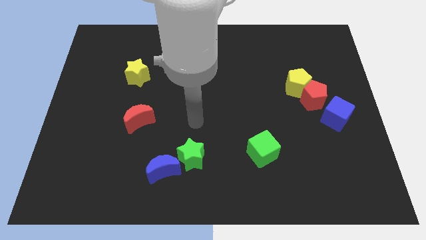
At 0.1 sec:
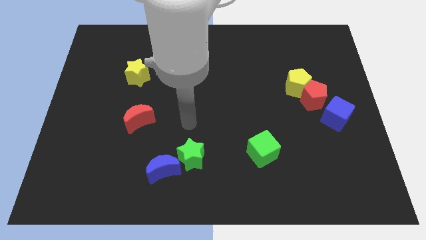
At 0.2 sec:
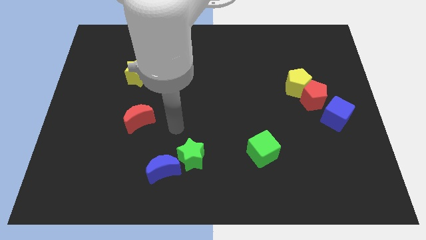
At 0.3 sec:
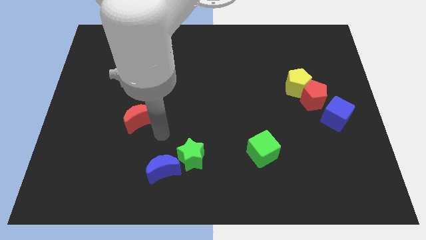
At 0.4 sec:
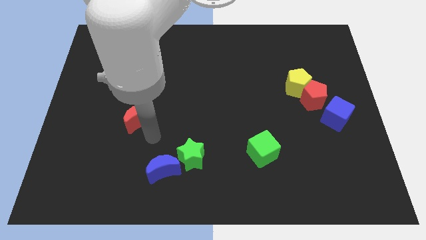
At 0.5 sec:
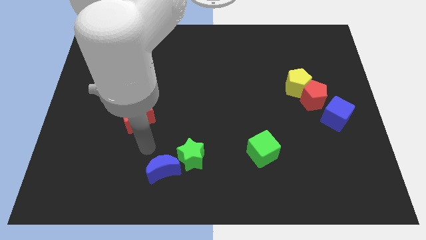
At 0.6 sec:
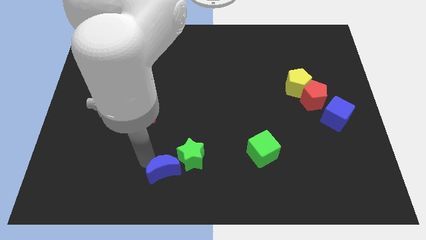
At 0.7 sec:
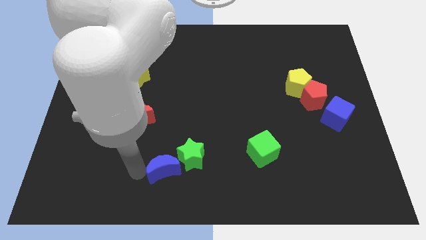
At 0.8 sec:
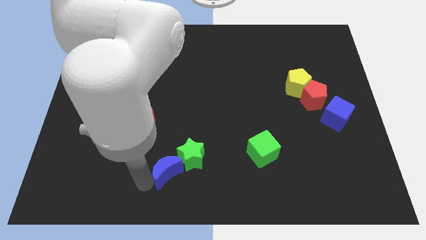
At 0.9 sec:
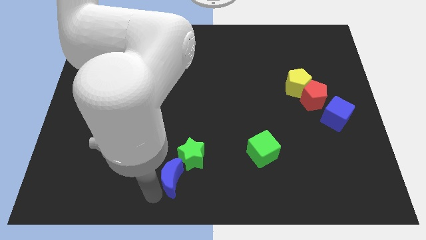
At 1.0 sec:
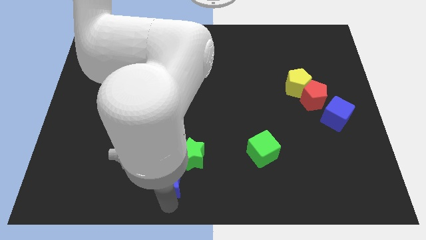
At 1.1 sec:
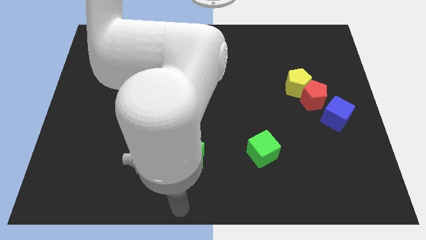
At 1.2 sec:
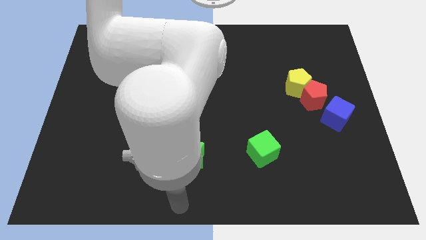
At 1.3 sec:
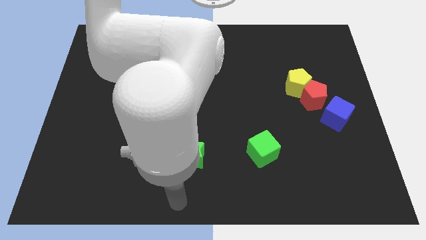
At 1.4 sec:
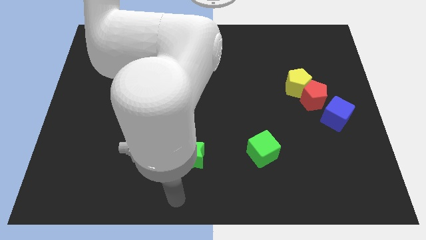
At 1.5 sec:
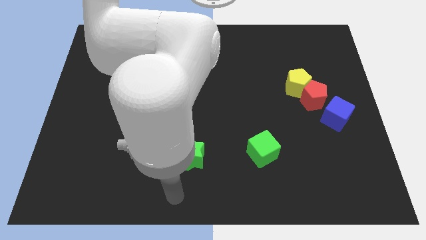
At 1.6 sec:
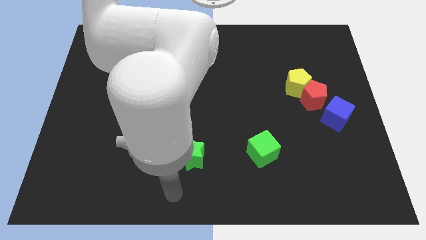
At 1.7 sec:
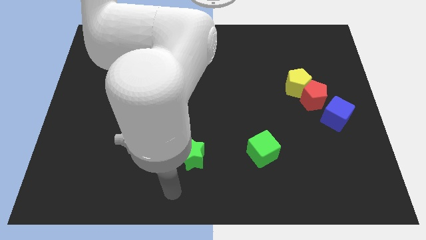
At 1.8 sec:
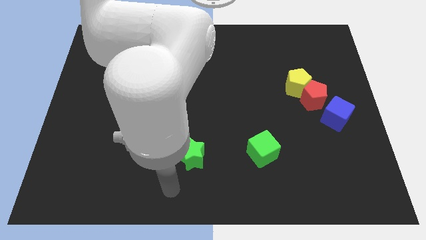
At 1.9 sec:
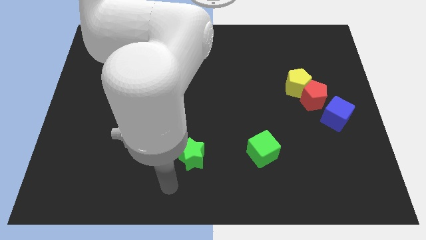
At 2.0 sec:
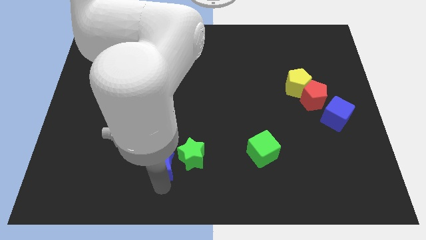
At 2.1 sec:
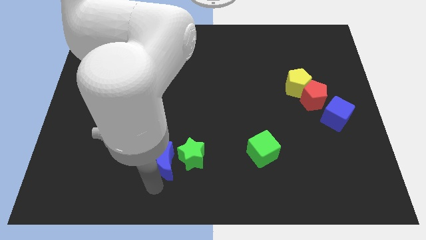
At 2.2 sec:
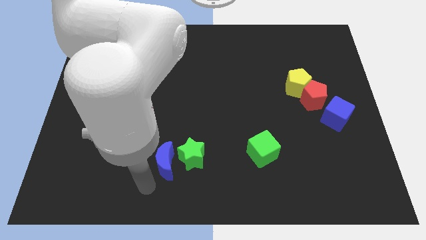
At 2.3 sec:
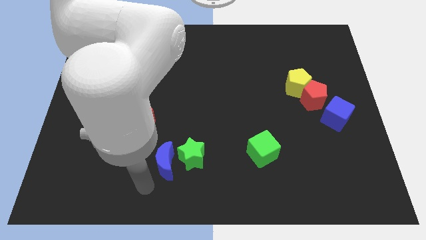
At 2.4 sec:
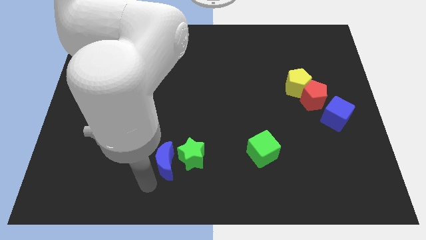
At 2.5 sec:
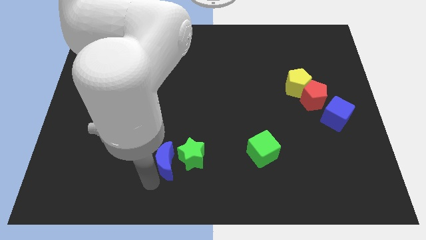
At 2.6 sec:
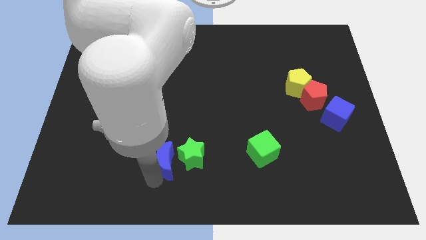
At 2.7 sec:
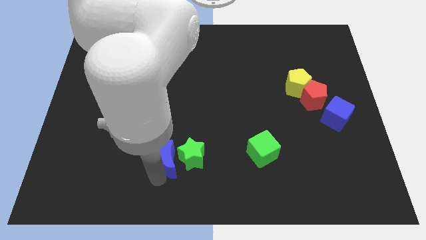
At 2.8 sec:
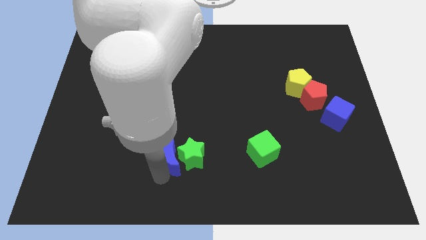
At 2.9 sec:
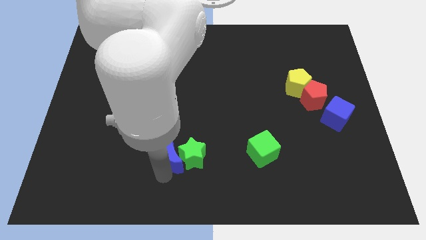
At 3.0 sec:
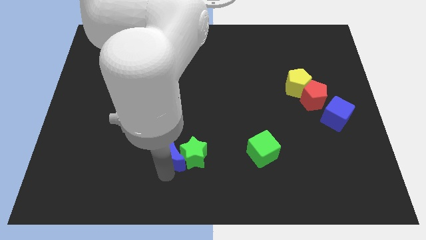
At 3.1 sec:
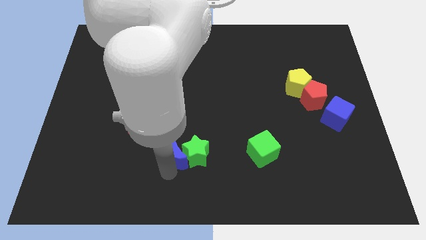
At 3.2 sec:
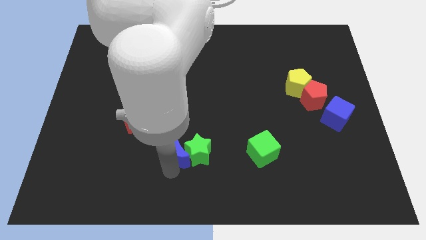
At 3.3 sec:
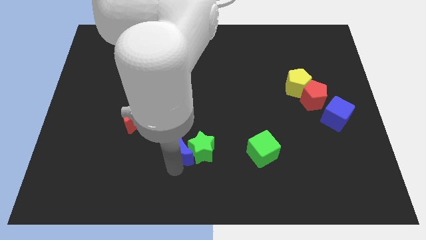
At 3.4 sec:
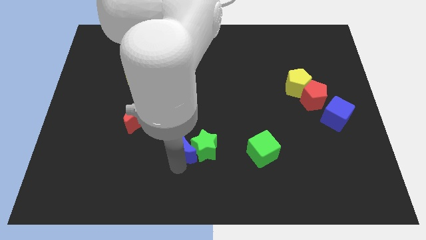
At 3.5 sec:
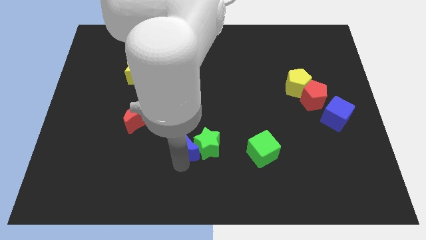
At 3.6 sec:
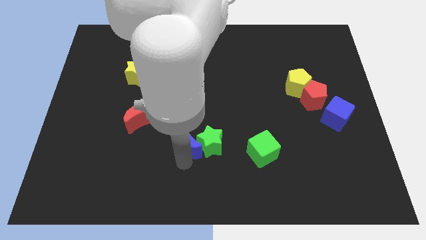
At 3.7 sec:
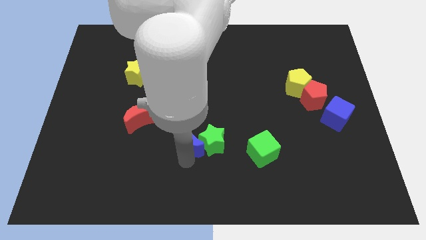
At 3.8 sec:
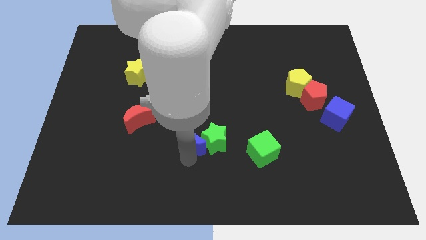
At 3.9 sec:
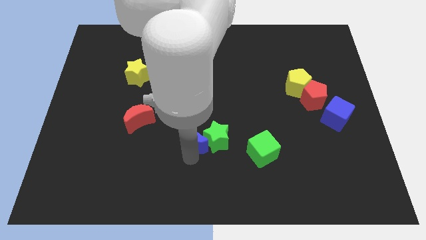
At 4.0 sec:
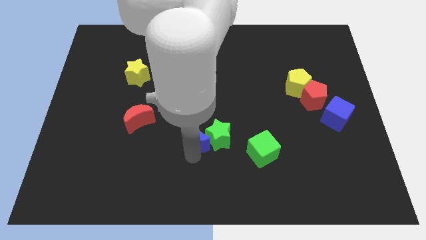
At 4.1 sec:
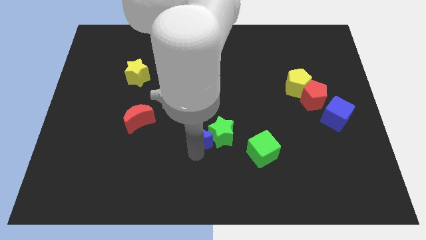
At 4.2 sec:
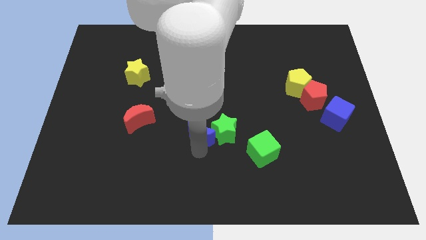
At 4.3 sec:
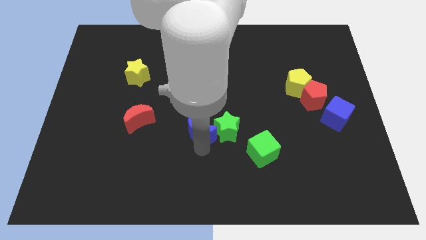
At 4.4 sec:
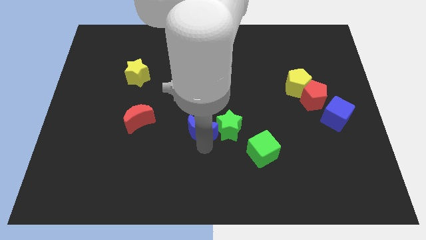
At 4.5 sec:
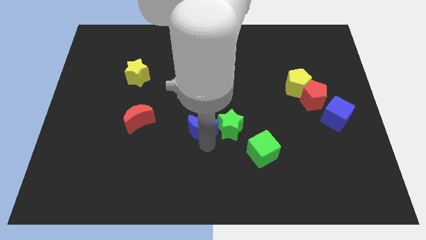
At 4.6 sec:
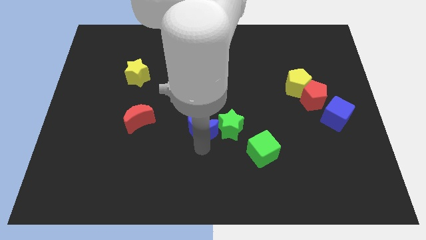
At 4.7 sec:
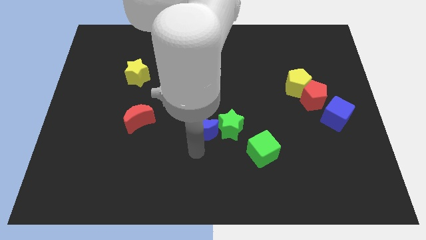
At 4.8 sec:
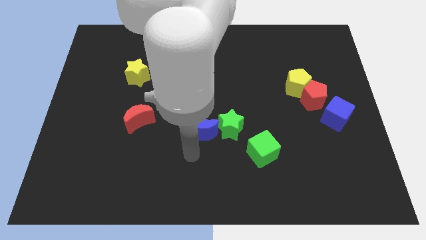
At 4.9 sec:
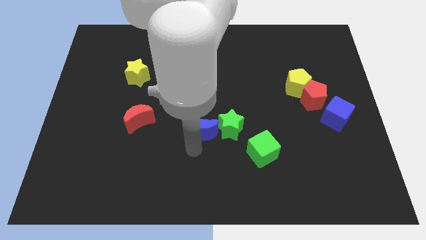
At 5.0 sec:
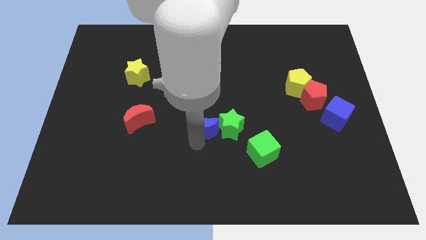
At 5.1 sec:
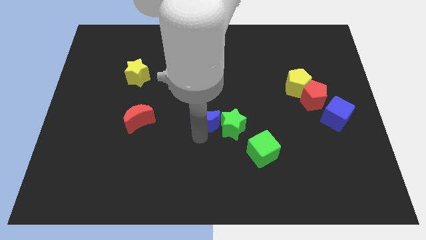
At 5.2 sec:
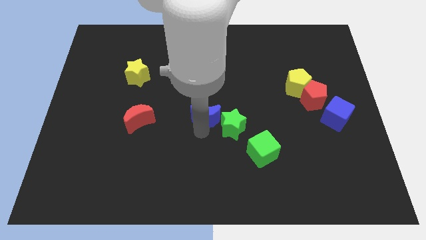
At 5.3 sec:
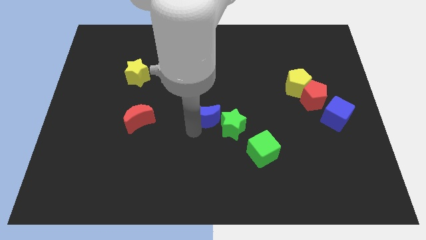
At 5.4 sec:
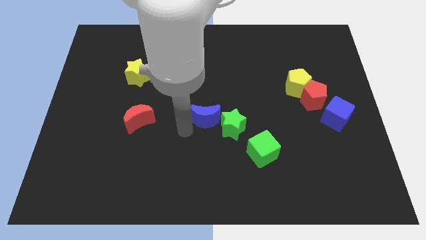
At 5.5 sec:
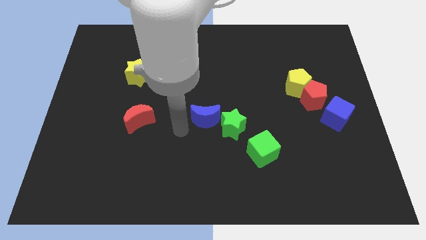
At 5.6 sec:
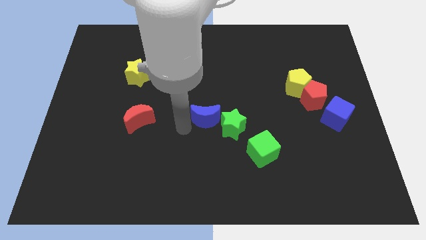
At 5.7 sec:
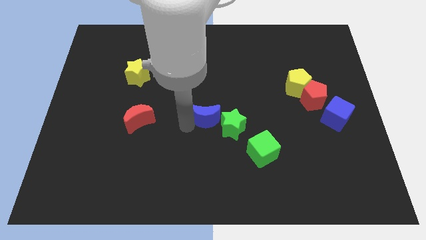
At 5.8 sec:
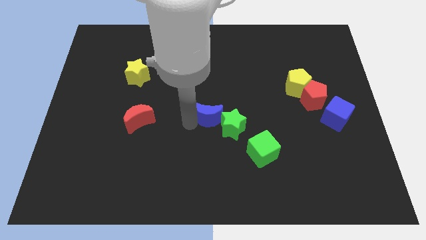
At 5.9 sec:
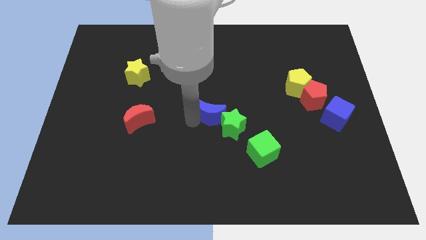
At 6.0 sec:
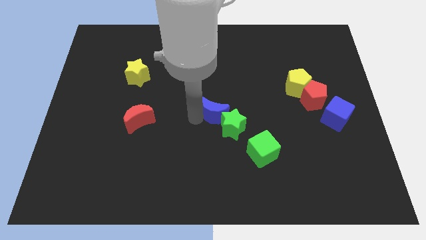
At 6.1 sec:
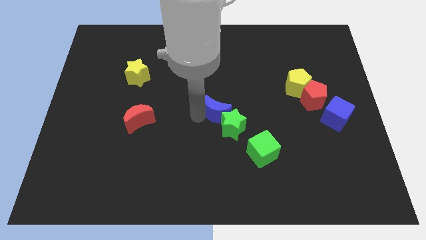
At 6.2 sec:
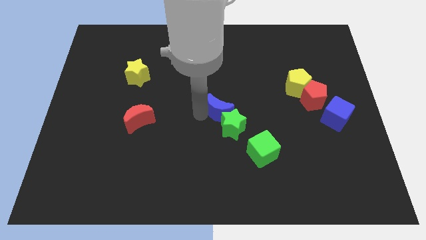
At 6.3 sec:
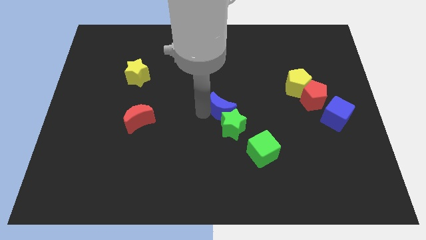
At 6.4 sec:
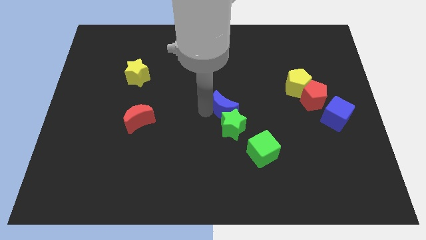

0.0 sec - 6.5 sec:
push the blue moon diagonally up and right

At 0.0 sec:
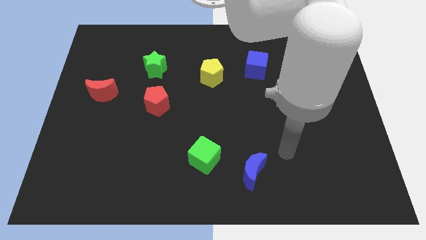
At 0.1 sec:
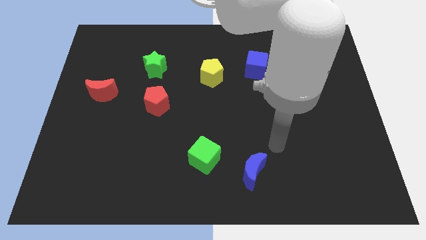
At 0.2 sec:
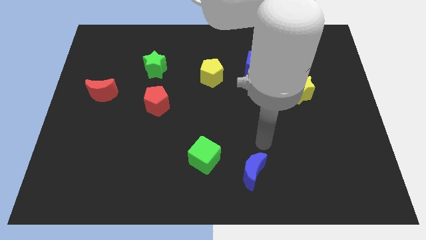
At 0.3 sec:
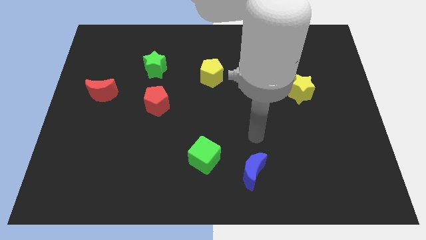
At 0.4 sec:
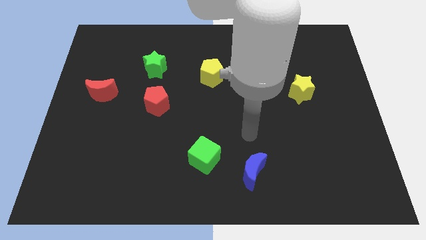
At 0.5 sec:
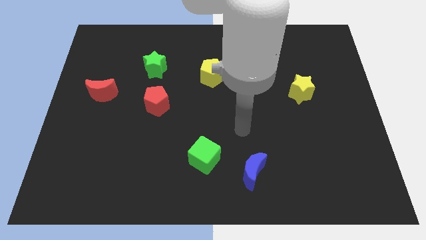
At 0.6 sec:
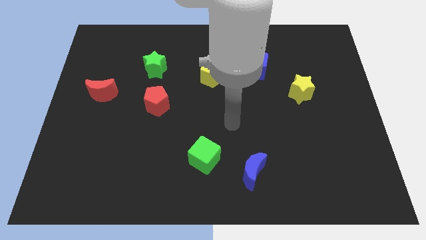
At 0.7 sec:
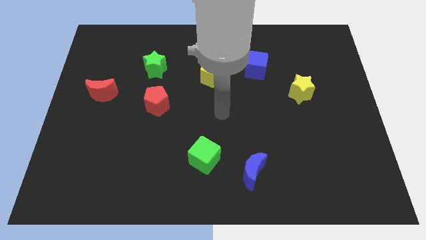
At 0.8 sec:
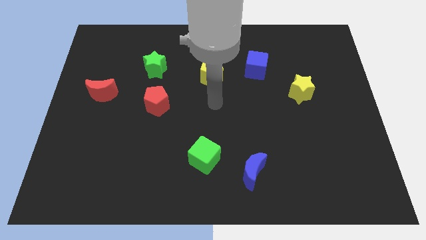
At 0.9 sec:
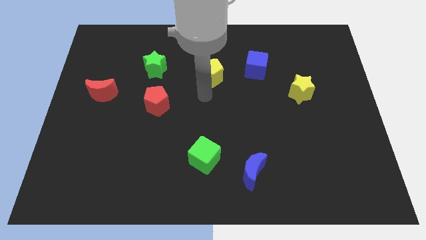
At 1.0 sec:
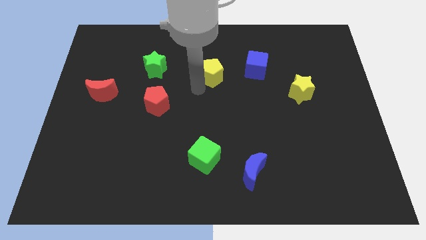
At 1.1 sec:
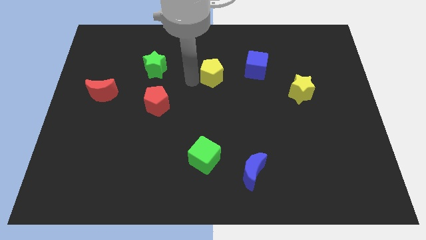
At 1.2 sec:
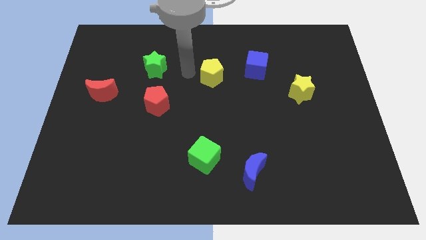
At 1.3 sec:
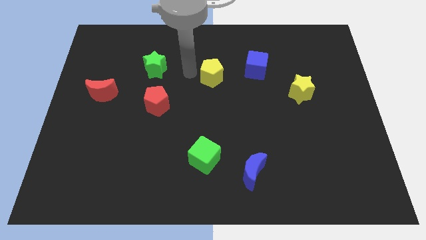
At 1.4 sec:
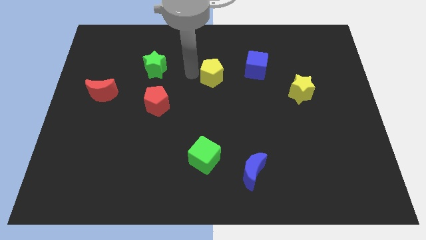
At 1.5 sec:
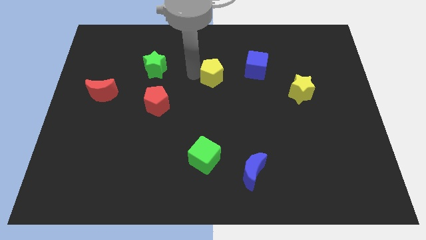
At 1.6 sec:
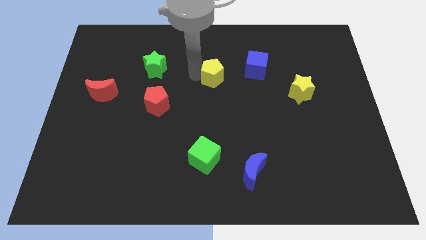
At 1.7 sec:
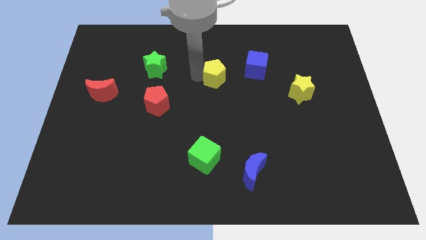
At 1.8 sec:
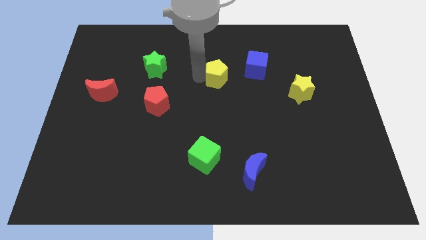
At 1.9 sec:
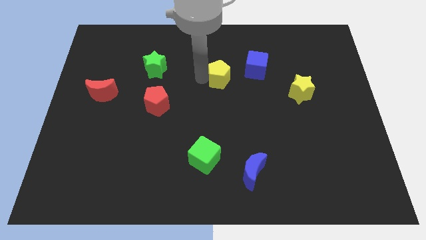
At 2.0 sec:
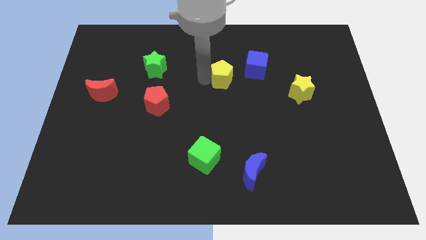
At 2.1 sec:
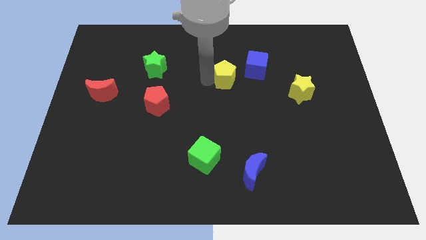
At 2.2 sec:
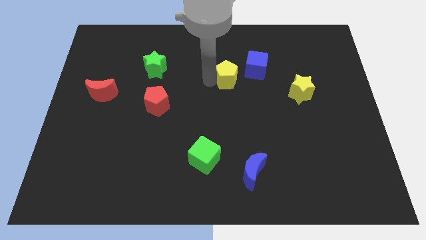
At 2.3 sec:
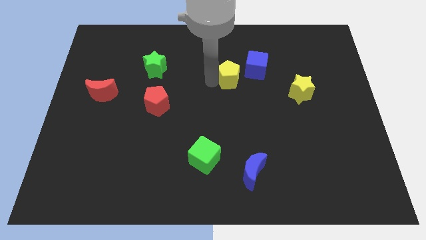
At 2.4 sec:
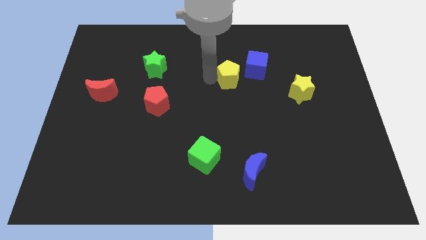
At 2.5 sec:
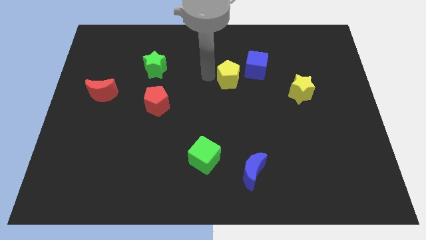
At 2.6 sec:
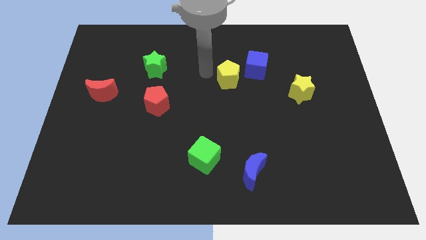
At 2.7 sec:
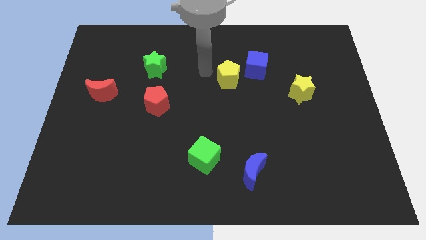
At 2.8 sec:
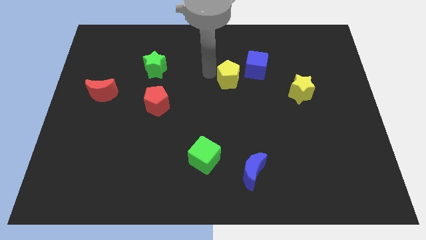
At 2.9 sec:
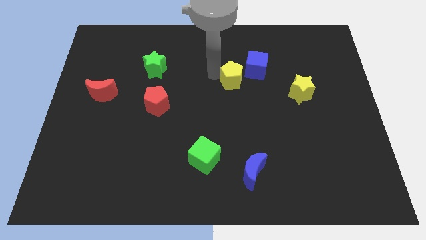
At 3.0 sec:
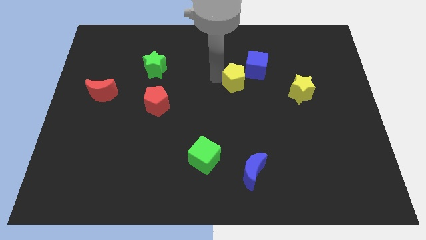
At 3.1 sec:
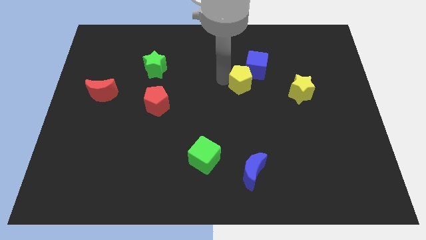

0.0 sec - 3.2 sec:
slide the yellow pentagon to the right slightly
